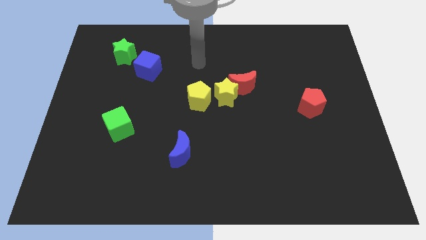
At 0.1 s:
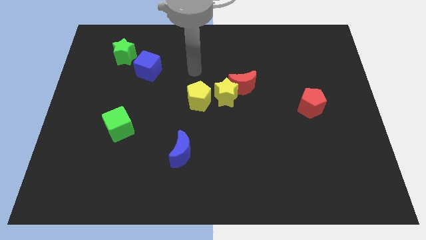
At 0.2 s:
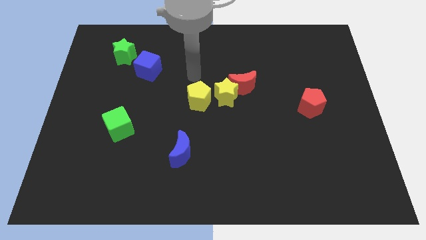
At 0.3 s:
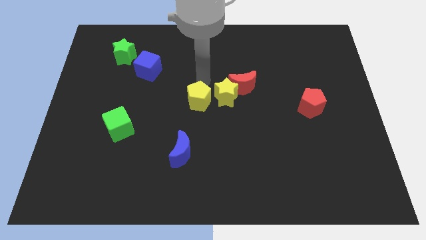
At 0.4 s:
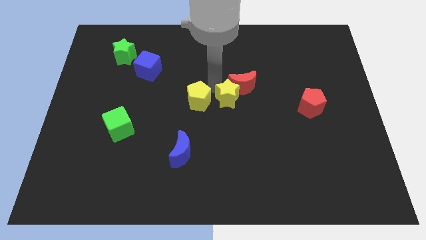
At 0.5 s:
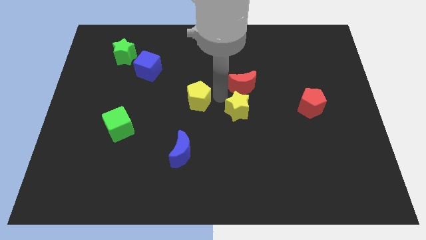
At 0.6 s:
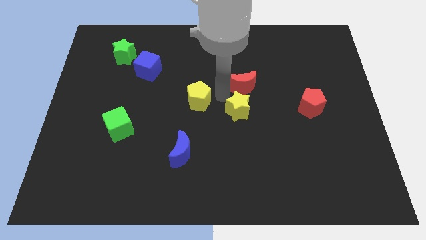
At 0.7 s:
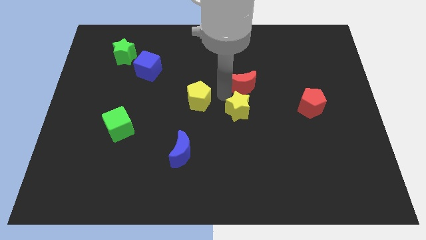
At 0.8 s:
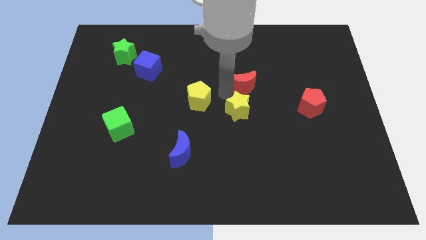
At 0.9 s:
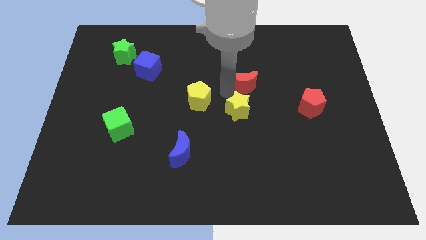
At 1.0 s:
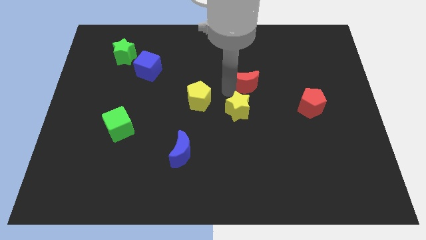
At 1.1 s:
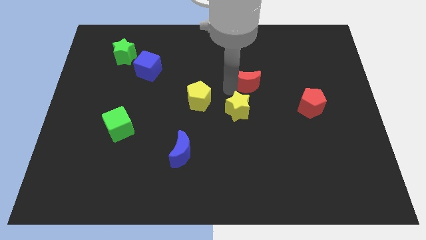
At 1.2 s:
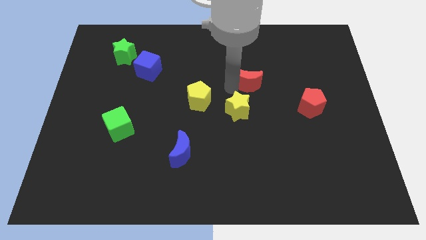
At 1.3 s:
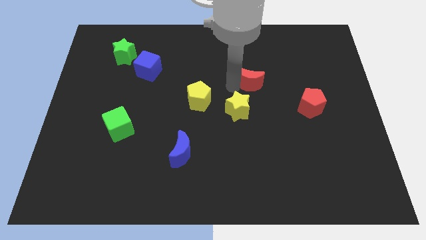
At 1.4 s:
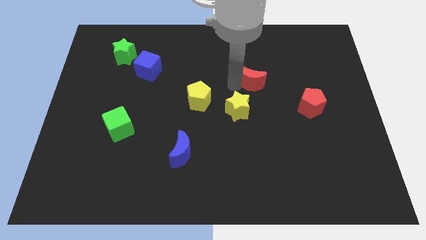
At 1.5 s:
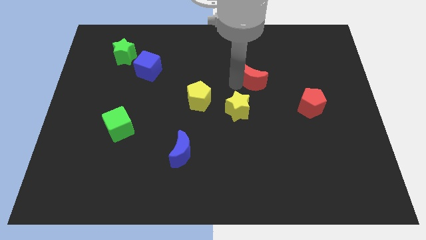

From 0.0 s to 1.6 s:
move the red moon away from the yellow star

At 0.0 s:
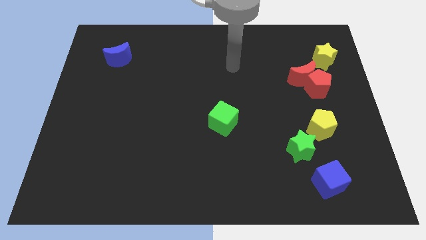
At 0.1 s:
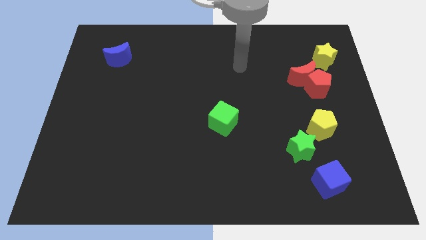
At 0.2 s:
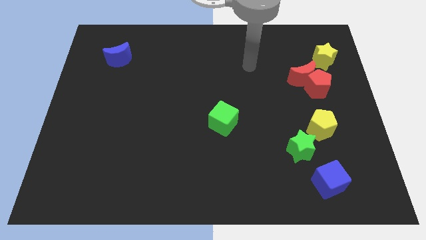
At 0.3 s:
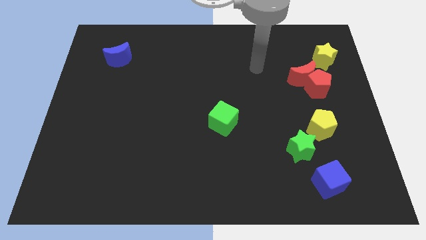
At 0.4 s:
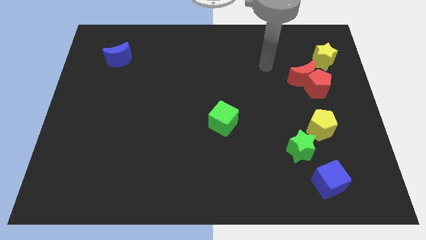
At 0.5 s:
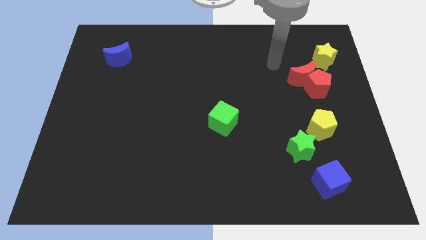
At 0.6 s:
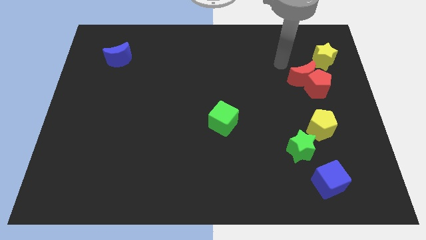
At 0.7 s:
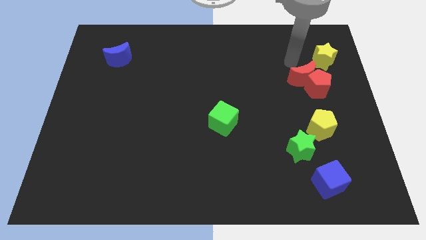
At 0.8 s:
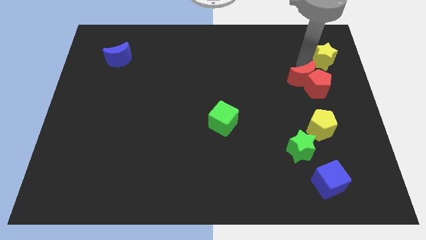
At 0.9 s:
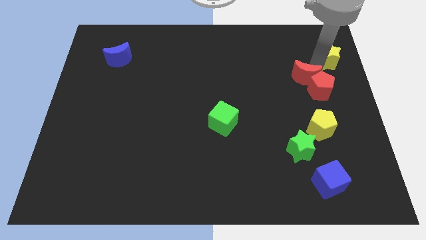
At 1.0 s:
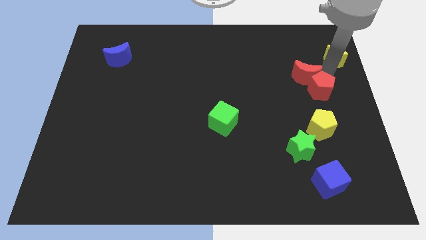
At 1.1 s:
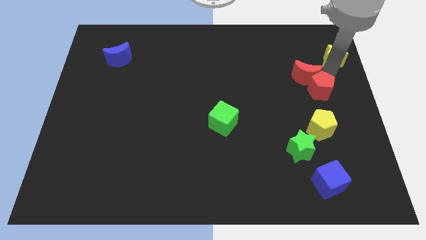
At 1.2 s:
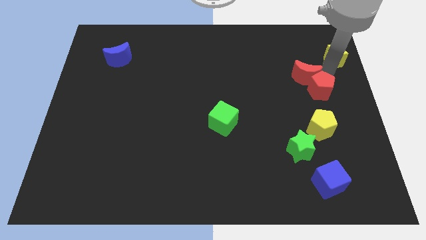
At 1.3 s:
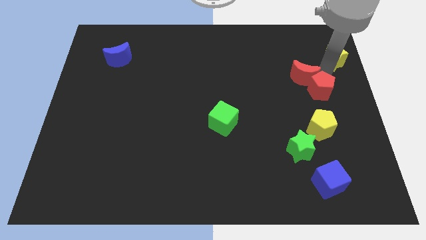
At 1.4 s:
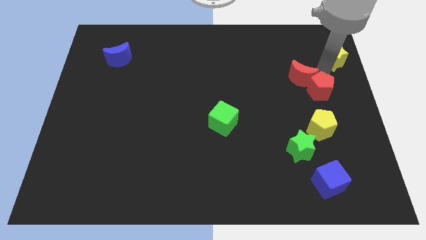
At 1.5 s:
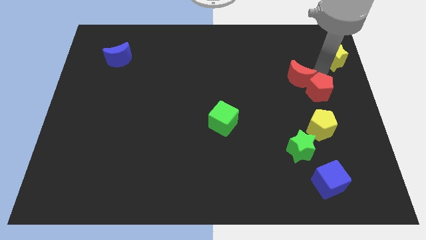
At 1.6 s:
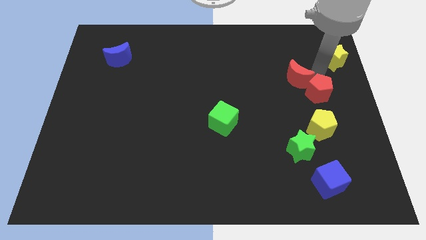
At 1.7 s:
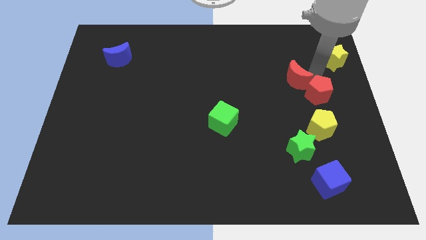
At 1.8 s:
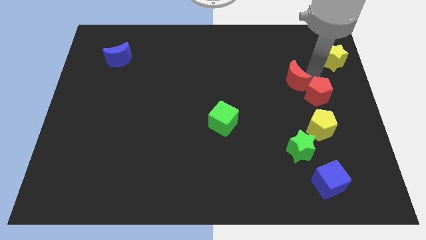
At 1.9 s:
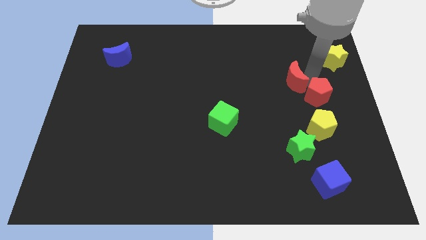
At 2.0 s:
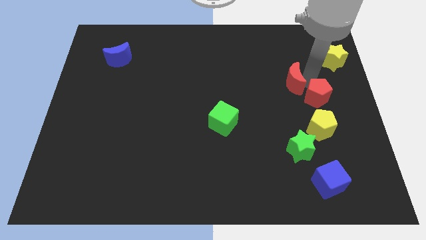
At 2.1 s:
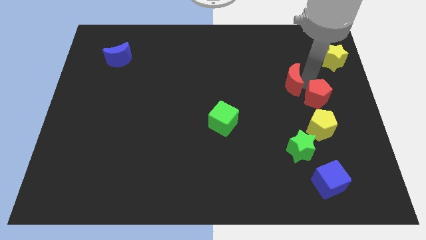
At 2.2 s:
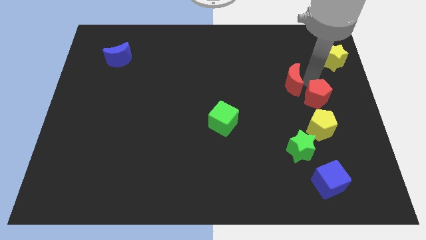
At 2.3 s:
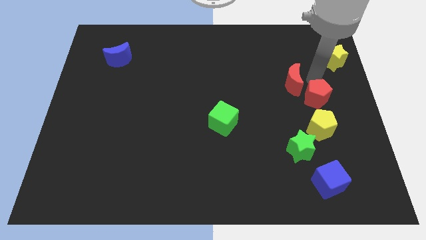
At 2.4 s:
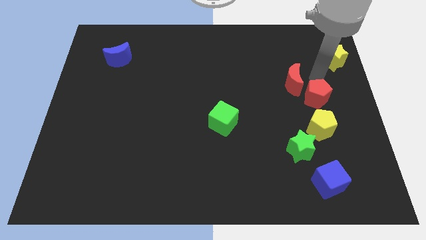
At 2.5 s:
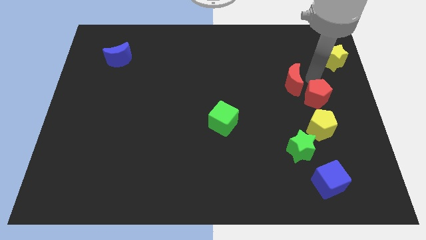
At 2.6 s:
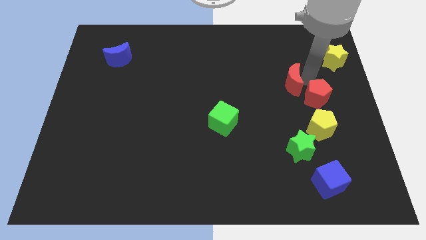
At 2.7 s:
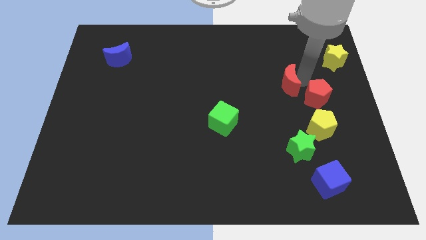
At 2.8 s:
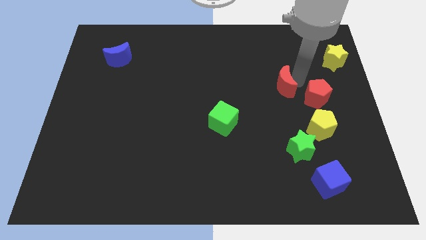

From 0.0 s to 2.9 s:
pull the red moon apart from the red pentagon and yellow star

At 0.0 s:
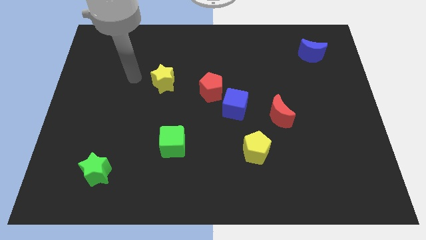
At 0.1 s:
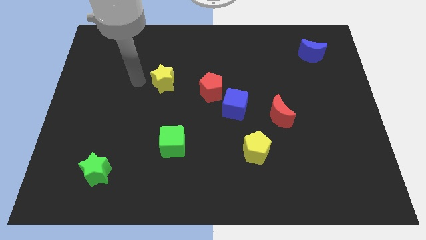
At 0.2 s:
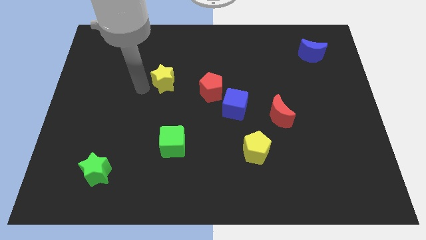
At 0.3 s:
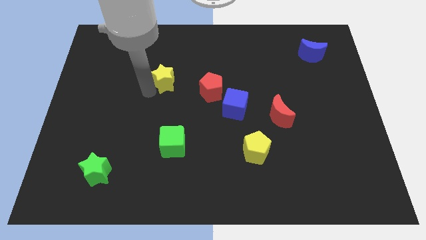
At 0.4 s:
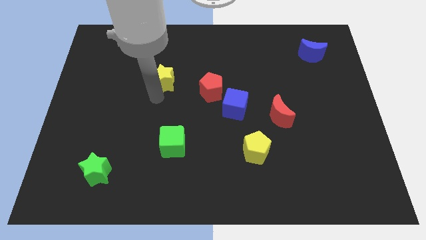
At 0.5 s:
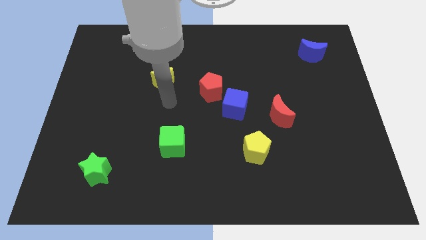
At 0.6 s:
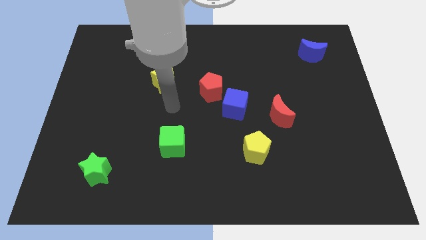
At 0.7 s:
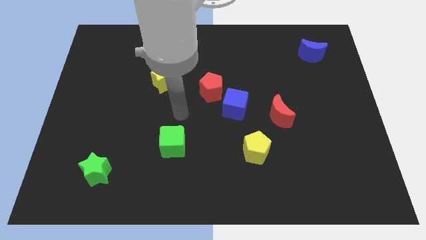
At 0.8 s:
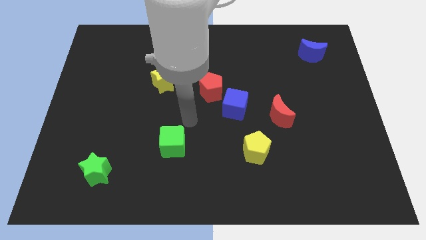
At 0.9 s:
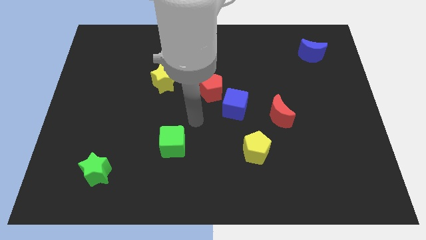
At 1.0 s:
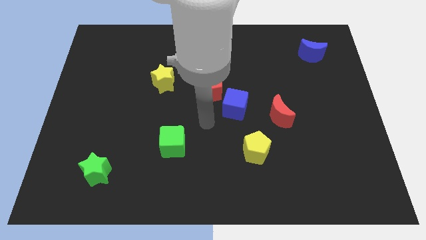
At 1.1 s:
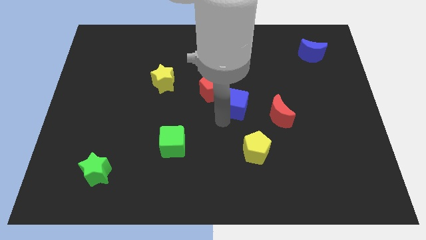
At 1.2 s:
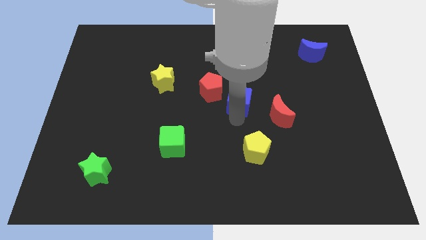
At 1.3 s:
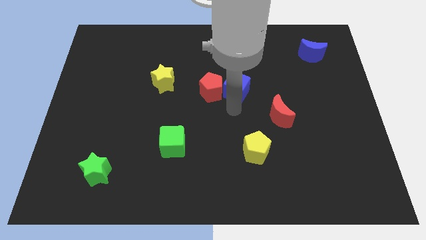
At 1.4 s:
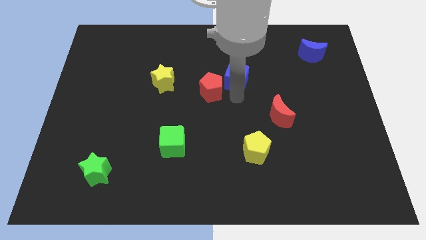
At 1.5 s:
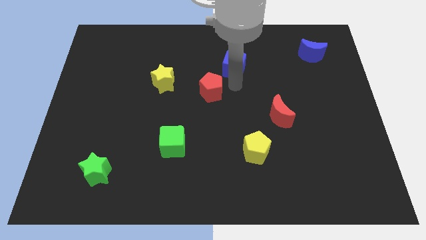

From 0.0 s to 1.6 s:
move the red pentagon away from the blue cube

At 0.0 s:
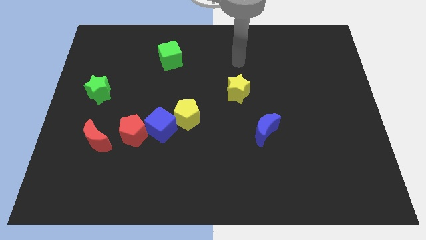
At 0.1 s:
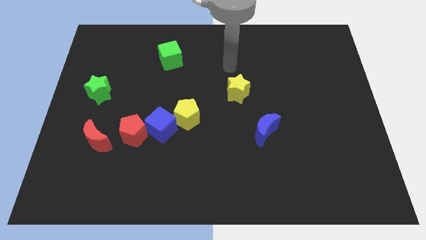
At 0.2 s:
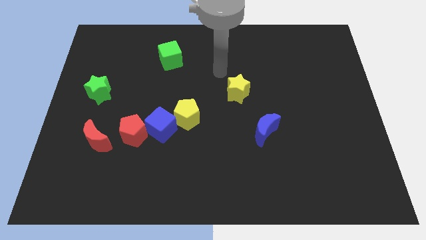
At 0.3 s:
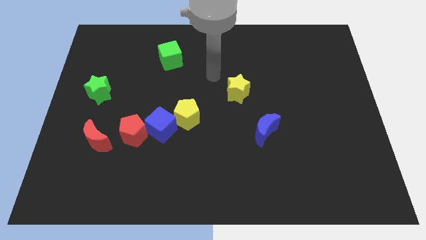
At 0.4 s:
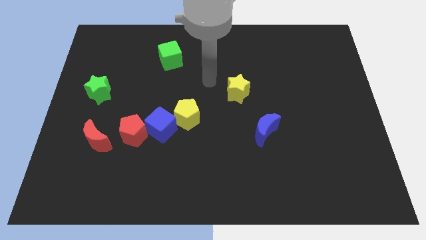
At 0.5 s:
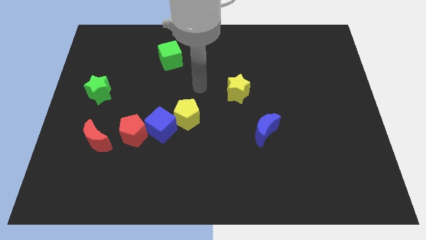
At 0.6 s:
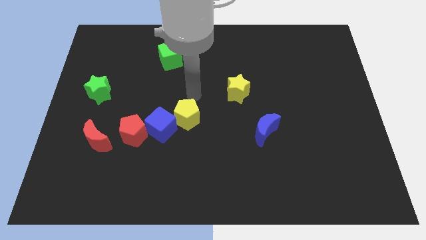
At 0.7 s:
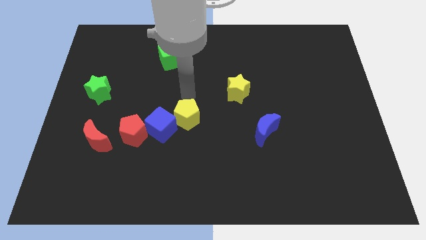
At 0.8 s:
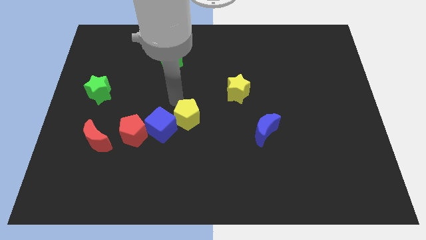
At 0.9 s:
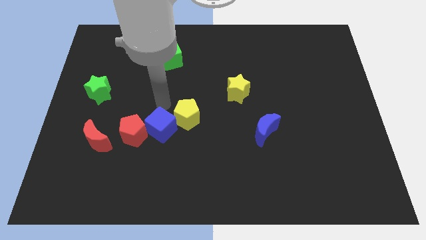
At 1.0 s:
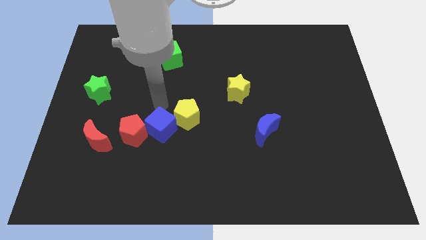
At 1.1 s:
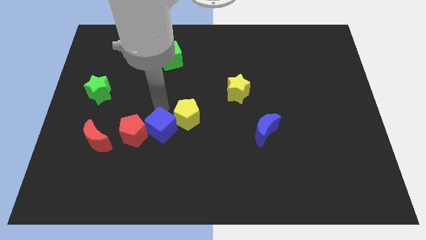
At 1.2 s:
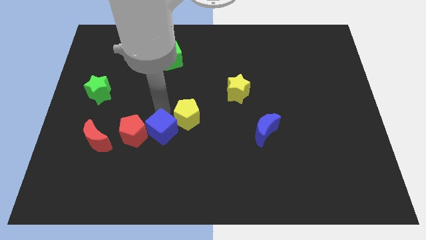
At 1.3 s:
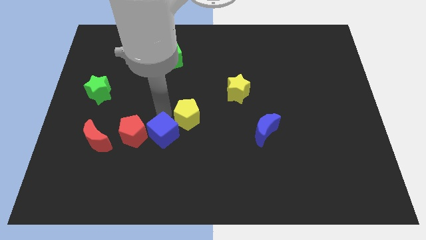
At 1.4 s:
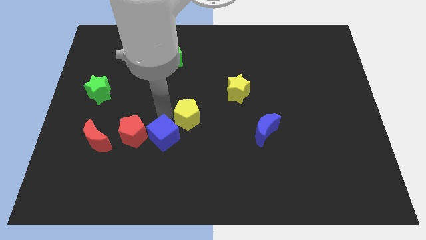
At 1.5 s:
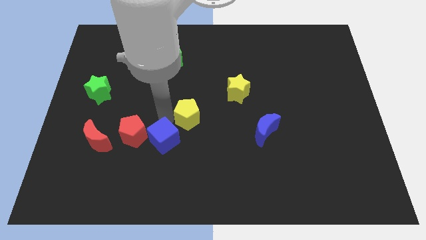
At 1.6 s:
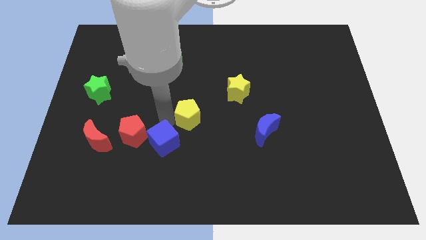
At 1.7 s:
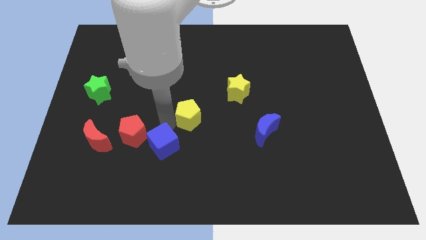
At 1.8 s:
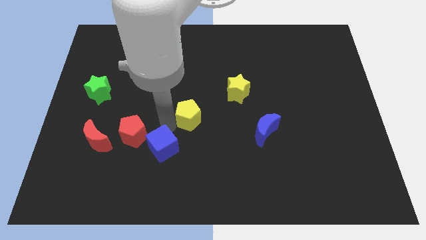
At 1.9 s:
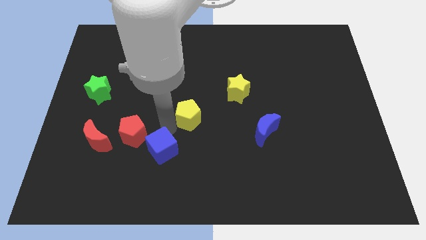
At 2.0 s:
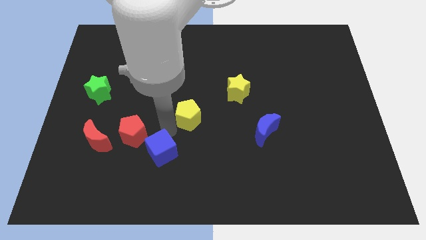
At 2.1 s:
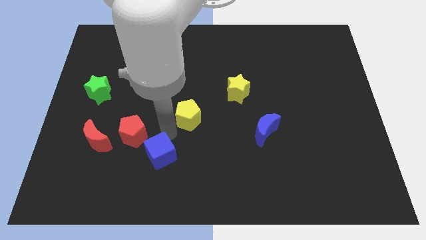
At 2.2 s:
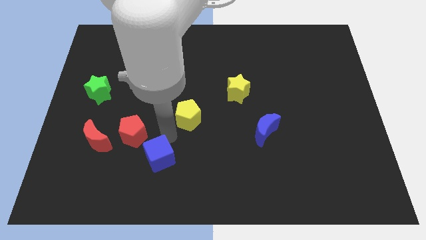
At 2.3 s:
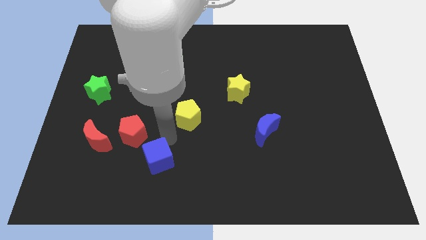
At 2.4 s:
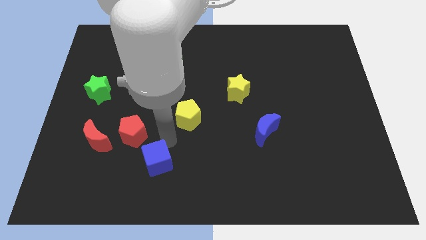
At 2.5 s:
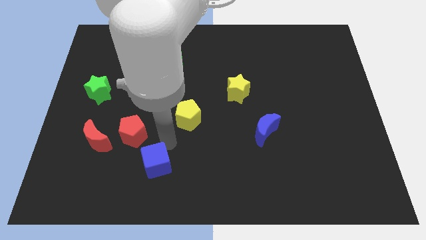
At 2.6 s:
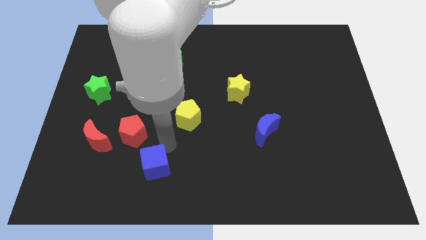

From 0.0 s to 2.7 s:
separate the blue cube from the red pentagon and yellow pentagon

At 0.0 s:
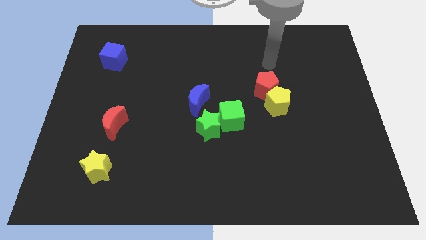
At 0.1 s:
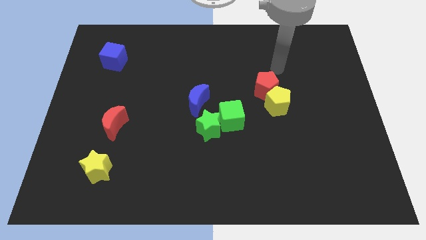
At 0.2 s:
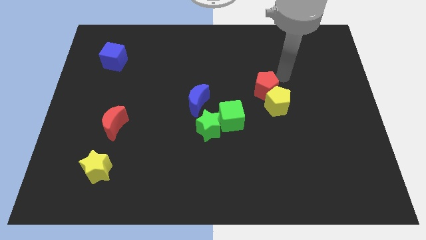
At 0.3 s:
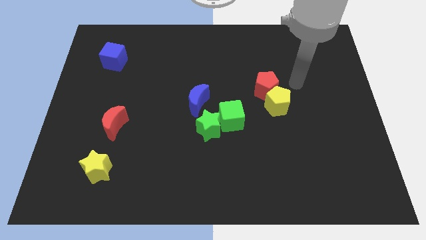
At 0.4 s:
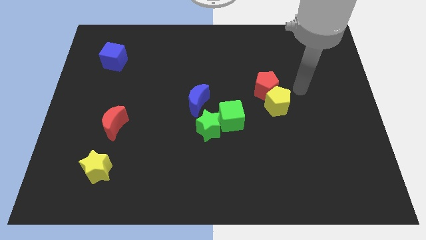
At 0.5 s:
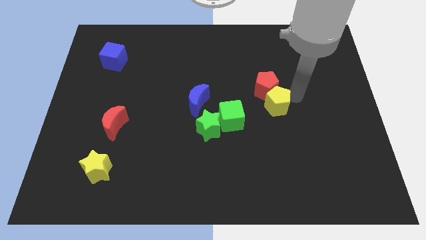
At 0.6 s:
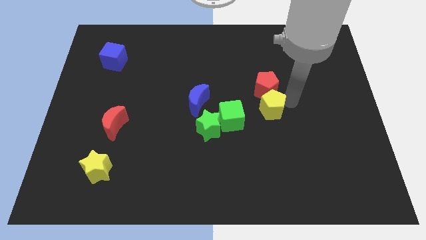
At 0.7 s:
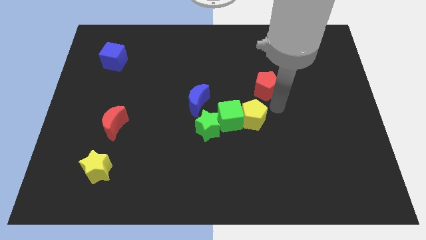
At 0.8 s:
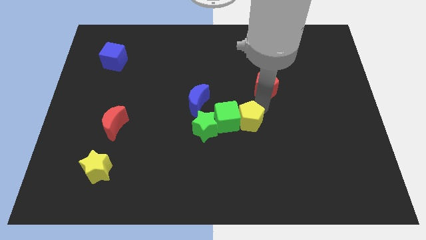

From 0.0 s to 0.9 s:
separate the red pentagon from the yellow pentagon
